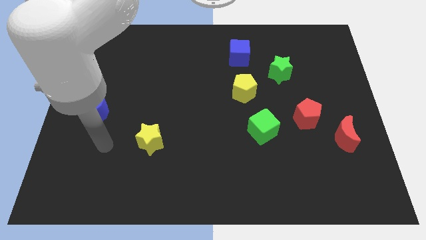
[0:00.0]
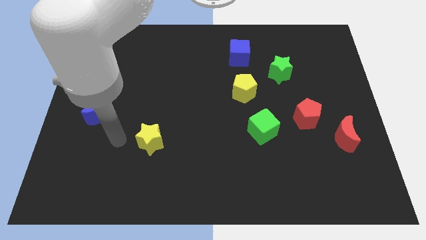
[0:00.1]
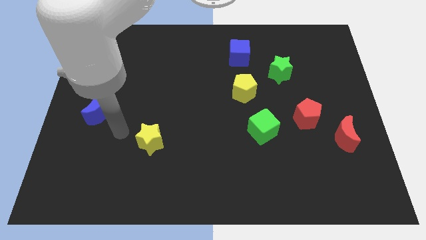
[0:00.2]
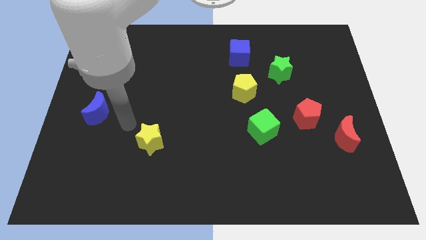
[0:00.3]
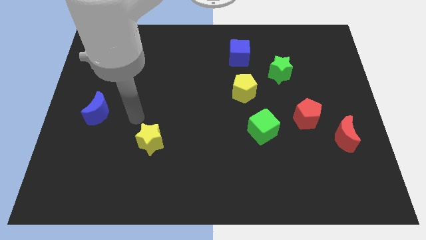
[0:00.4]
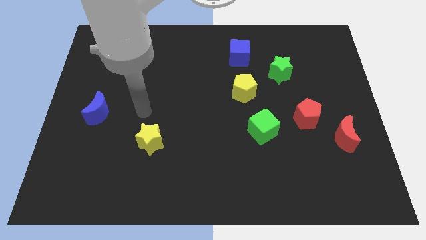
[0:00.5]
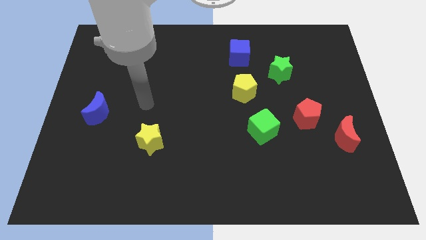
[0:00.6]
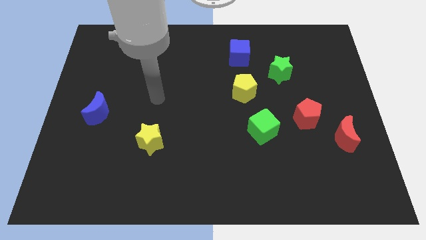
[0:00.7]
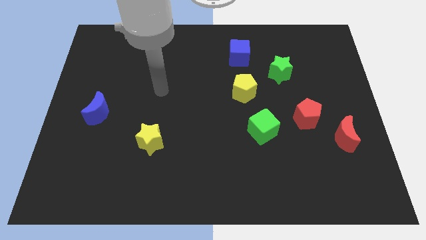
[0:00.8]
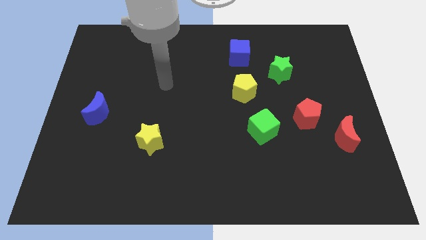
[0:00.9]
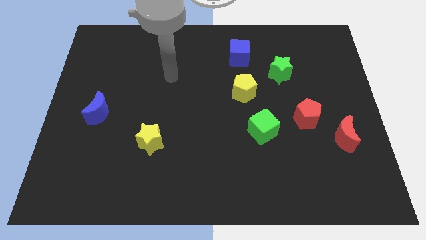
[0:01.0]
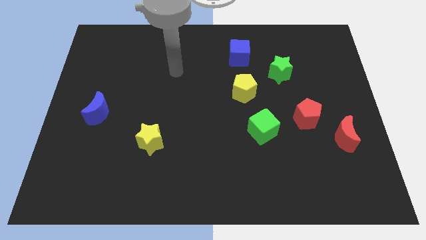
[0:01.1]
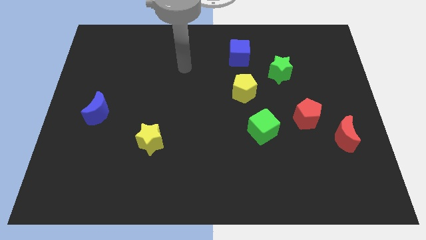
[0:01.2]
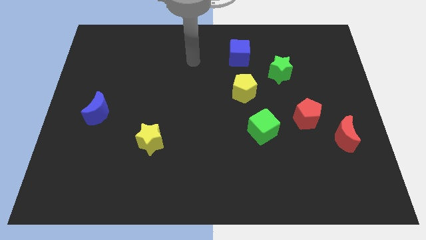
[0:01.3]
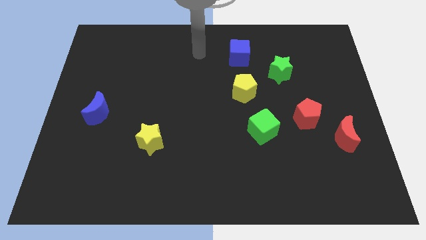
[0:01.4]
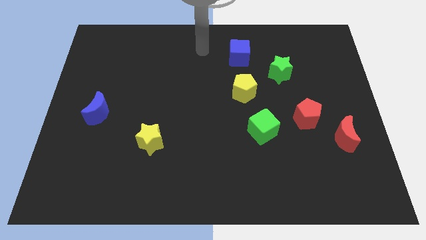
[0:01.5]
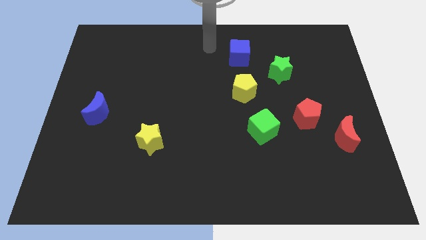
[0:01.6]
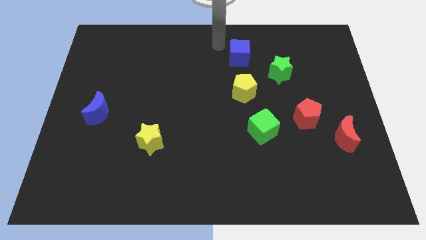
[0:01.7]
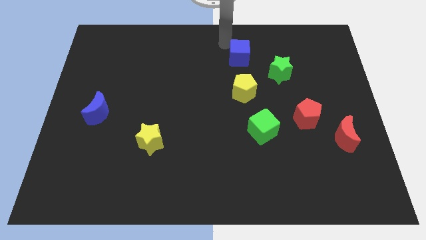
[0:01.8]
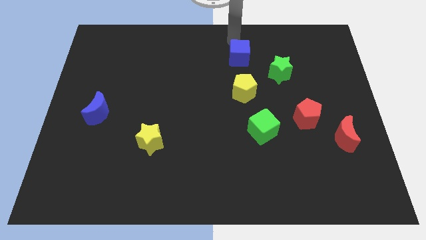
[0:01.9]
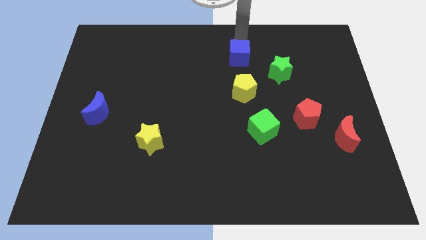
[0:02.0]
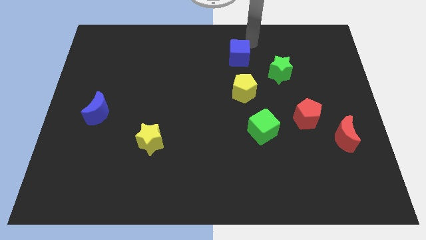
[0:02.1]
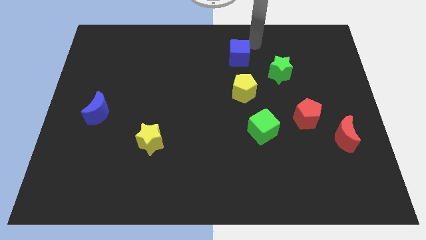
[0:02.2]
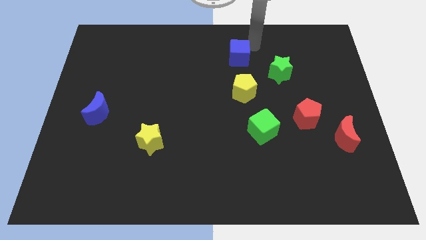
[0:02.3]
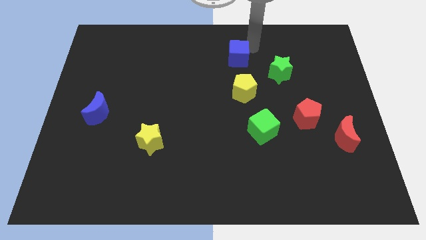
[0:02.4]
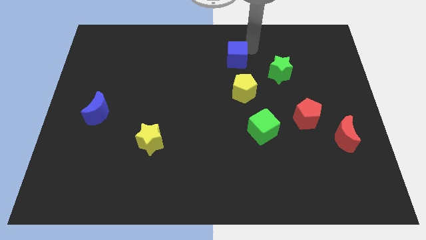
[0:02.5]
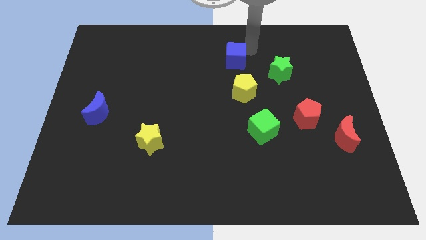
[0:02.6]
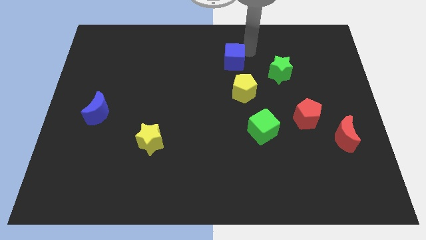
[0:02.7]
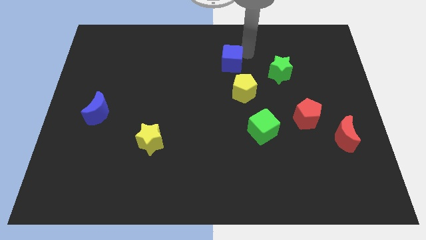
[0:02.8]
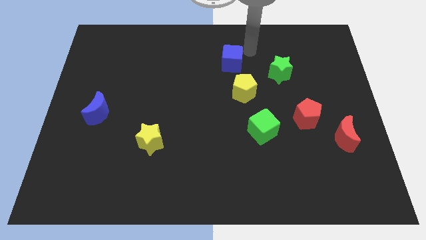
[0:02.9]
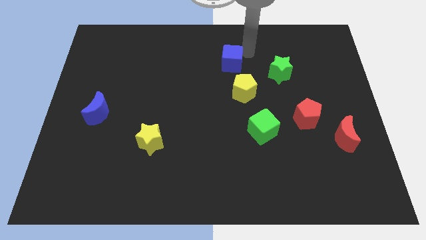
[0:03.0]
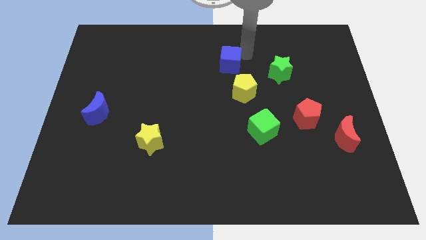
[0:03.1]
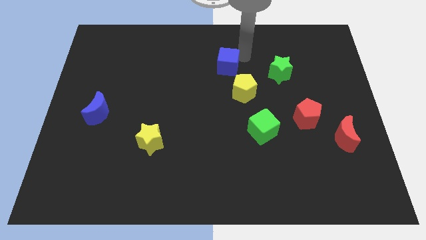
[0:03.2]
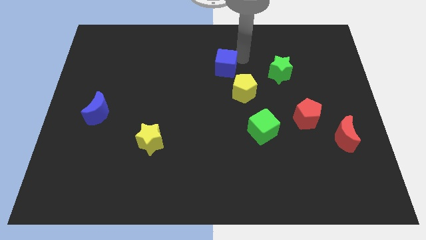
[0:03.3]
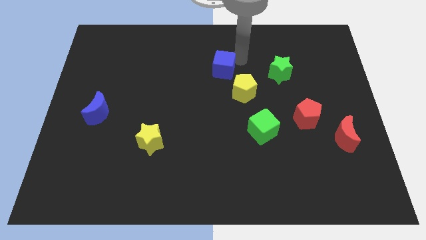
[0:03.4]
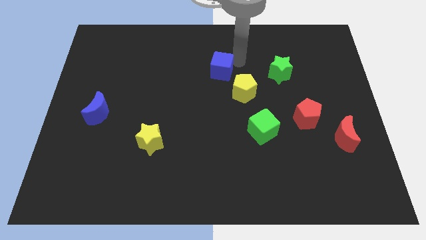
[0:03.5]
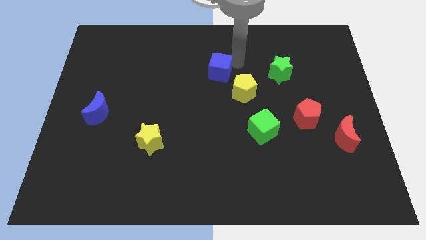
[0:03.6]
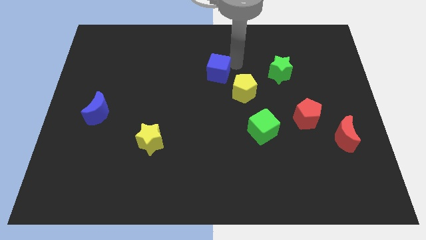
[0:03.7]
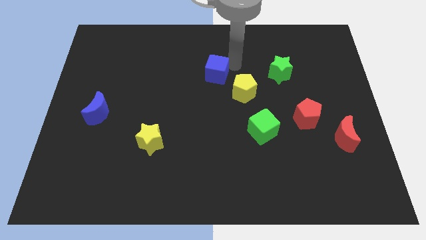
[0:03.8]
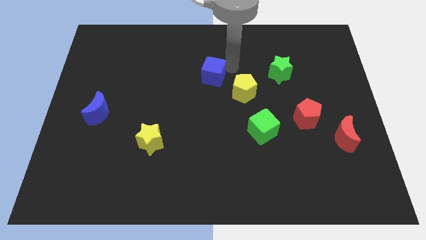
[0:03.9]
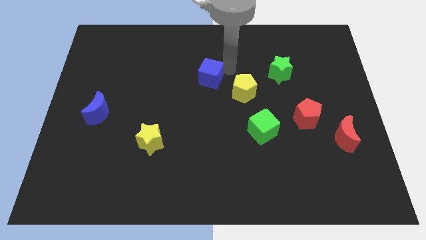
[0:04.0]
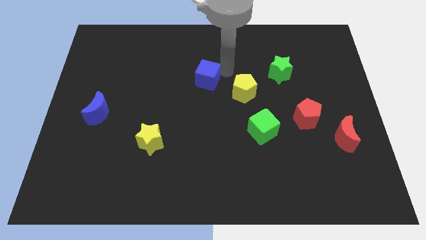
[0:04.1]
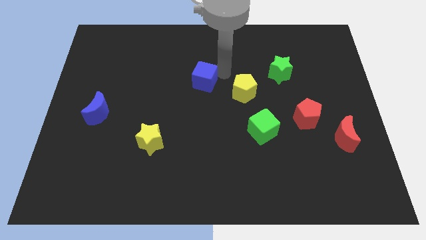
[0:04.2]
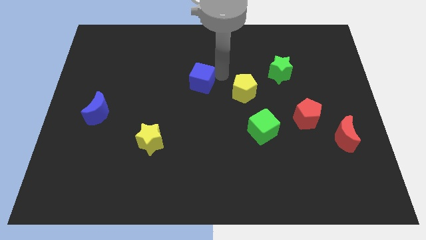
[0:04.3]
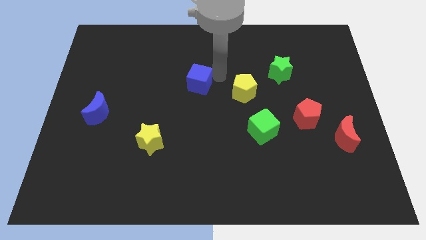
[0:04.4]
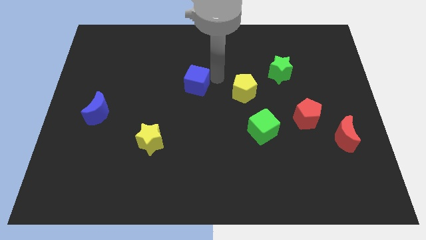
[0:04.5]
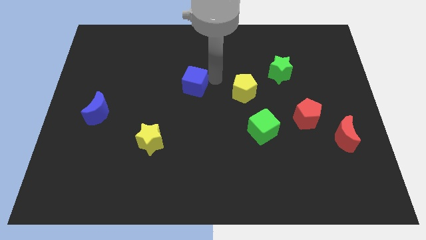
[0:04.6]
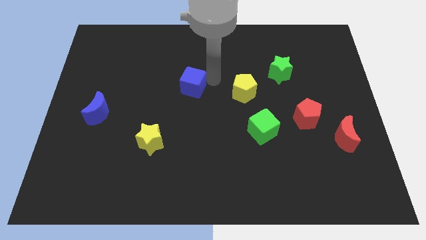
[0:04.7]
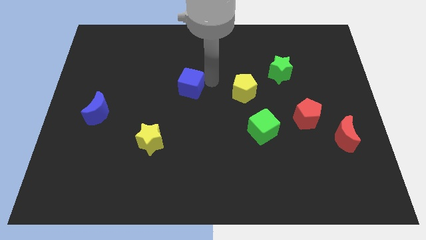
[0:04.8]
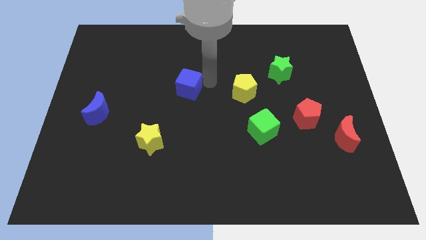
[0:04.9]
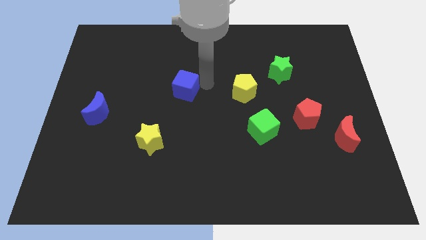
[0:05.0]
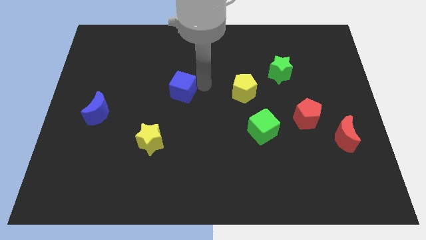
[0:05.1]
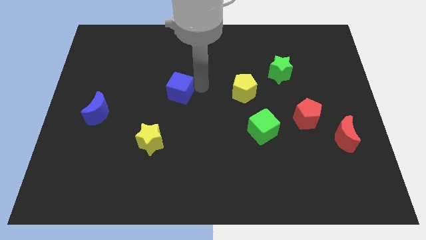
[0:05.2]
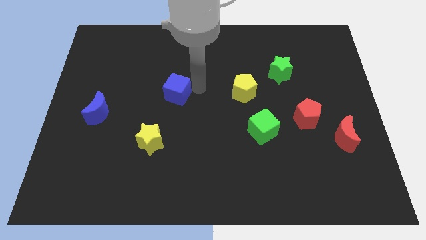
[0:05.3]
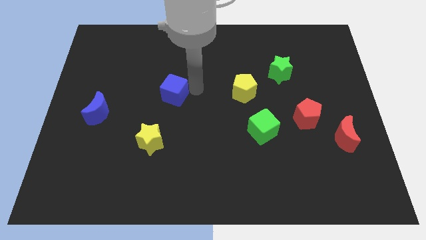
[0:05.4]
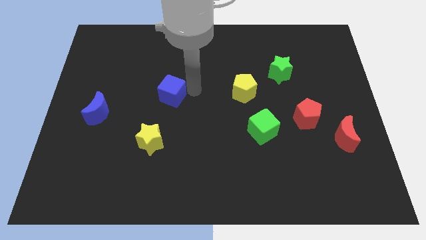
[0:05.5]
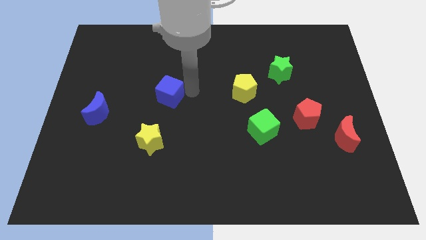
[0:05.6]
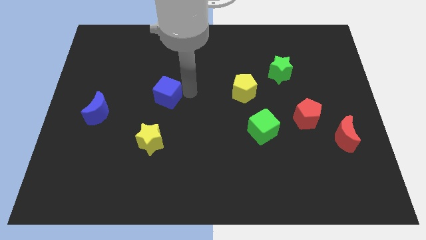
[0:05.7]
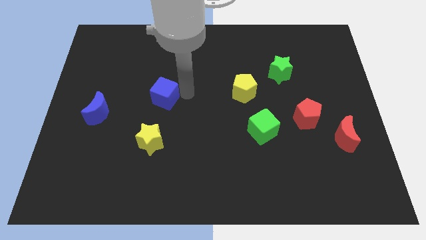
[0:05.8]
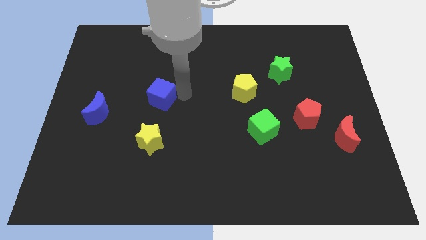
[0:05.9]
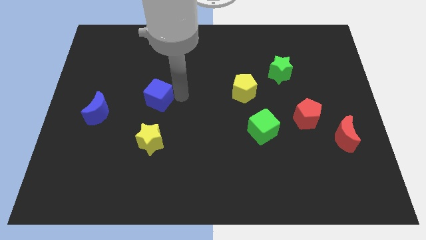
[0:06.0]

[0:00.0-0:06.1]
put the blue cube to the right side of the blue moon

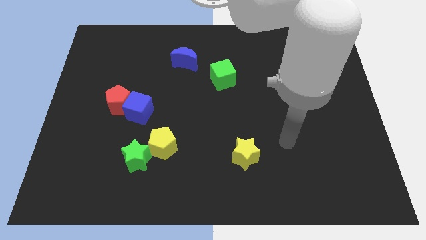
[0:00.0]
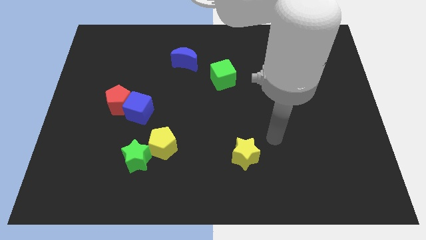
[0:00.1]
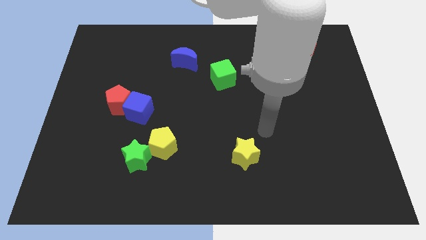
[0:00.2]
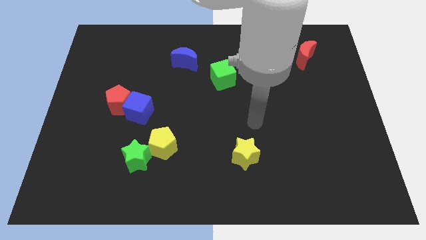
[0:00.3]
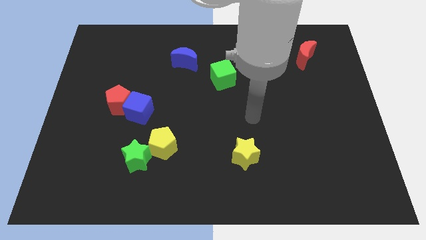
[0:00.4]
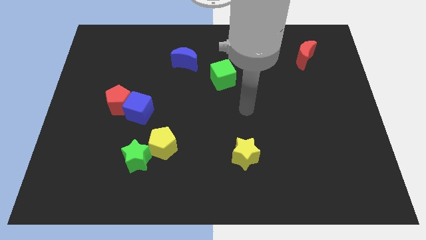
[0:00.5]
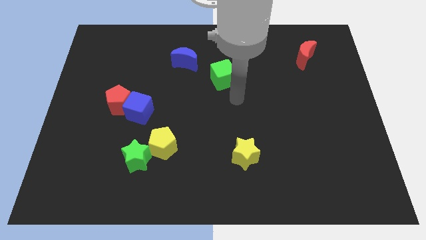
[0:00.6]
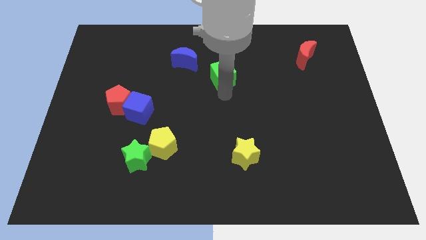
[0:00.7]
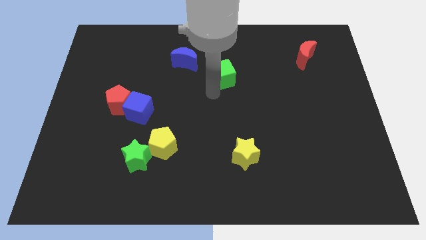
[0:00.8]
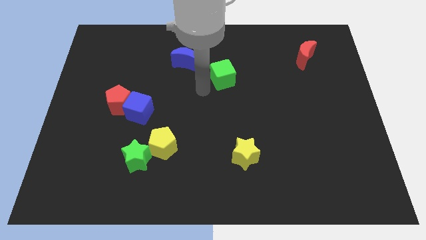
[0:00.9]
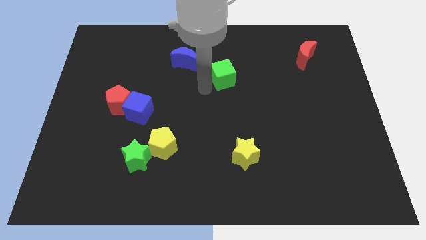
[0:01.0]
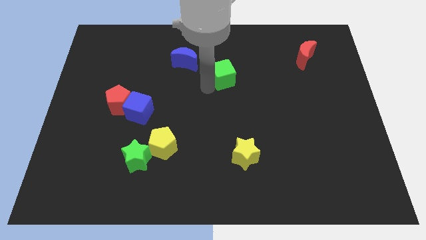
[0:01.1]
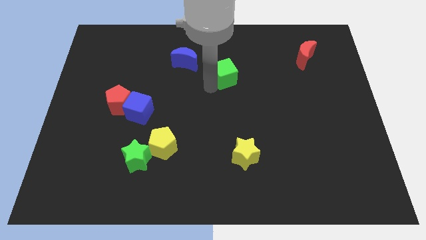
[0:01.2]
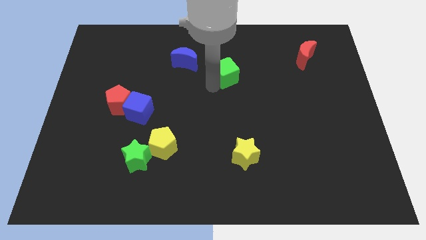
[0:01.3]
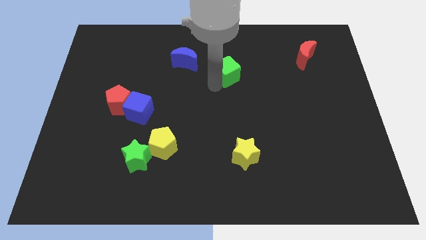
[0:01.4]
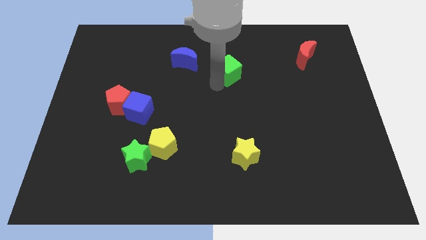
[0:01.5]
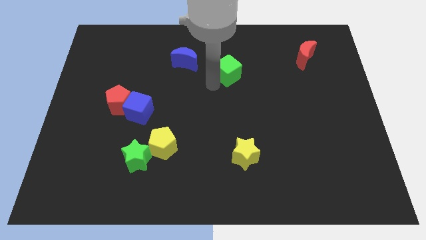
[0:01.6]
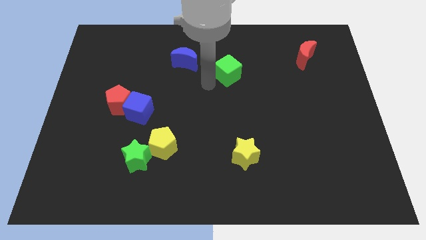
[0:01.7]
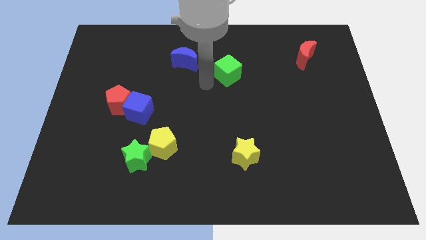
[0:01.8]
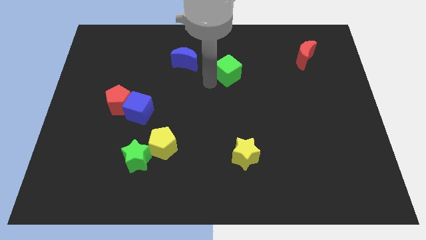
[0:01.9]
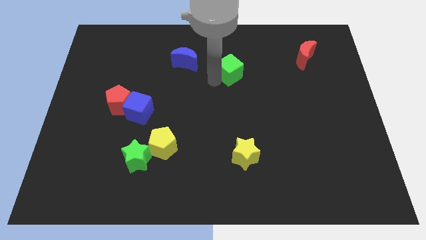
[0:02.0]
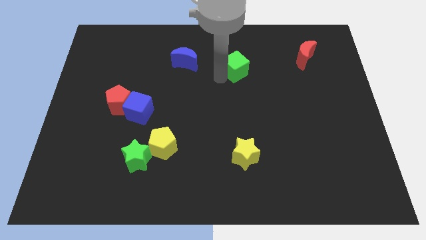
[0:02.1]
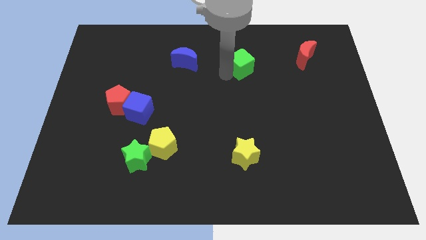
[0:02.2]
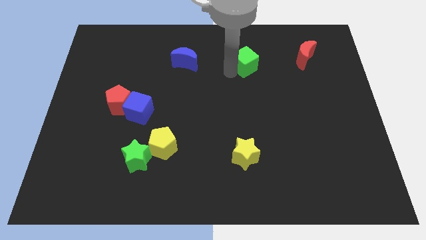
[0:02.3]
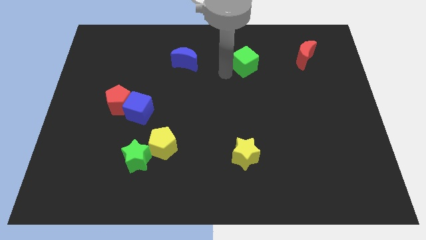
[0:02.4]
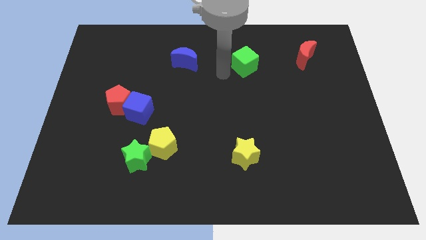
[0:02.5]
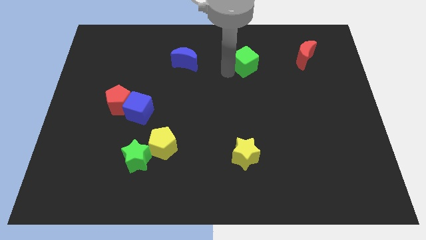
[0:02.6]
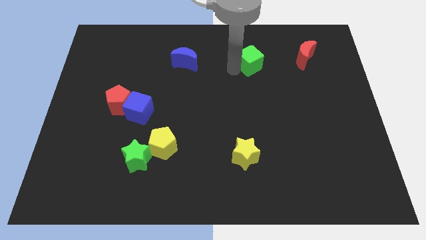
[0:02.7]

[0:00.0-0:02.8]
push the green cube to the left side of the red moon
